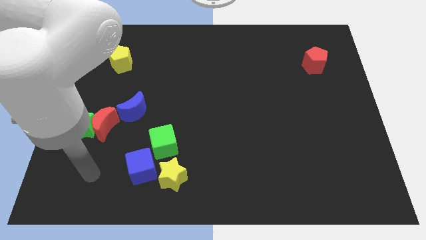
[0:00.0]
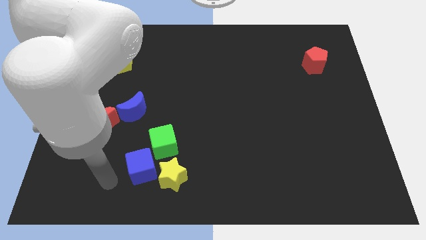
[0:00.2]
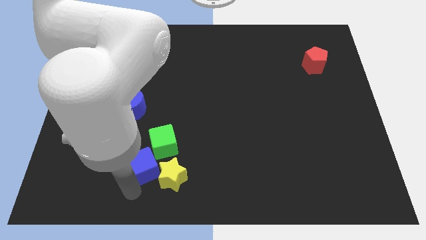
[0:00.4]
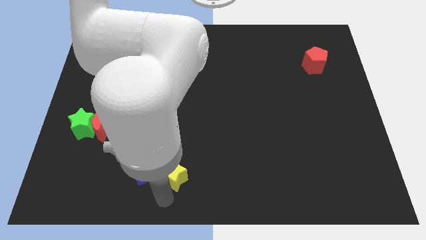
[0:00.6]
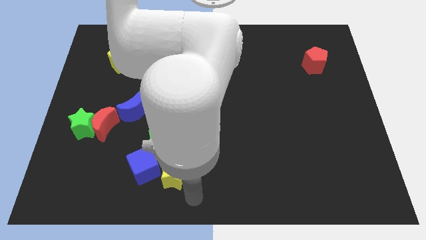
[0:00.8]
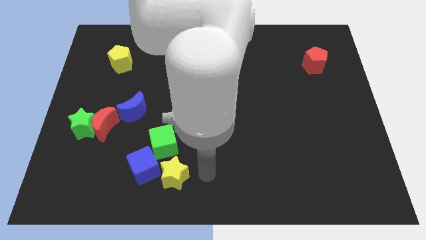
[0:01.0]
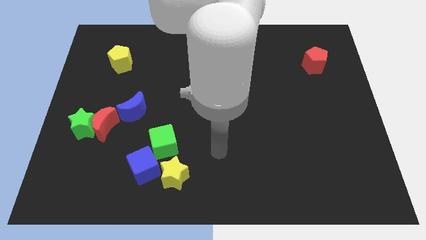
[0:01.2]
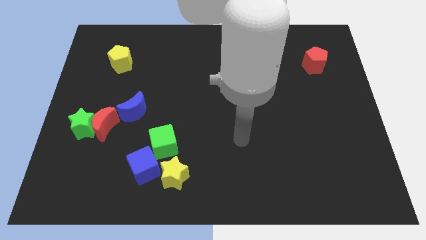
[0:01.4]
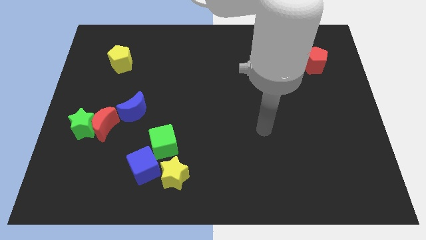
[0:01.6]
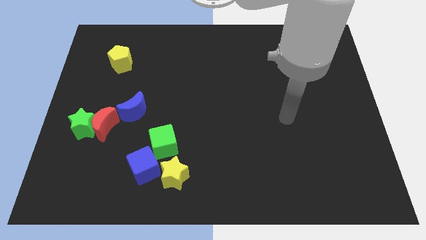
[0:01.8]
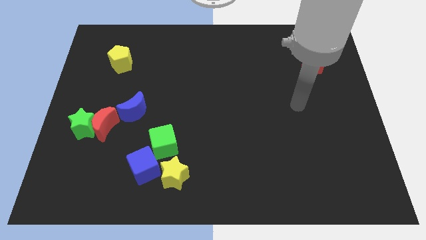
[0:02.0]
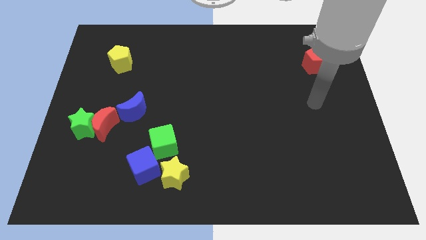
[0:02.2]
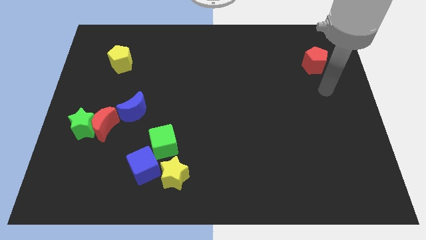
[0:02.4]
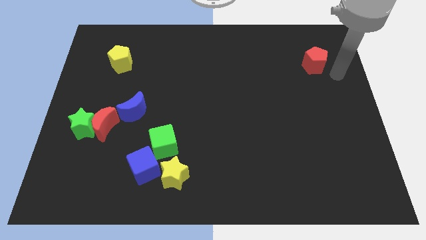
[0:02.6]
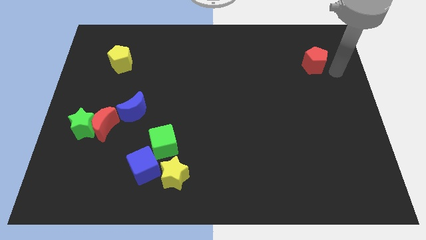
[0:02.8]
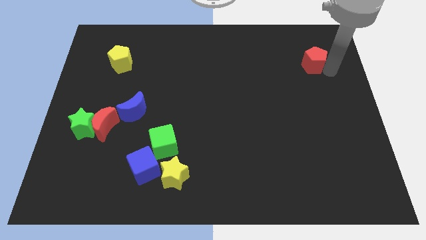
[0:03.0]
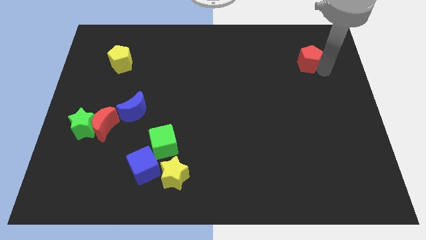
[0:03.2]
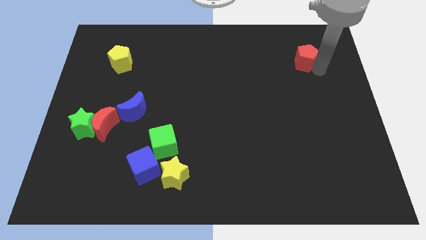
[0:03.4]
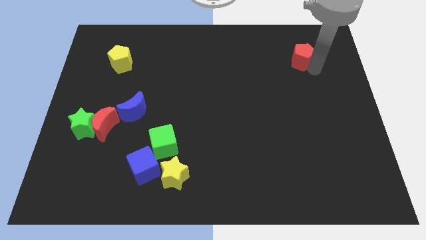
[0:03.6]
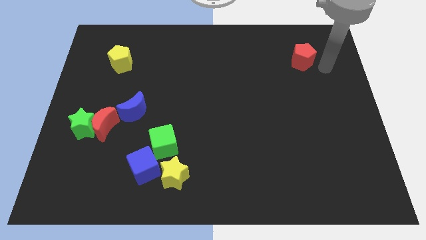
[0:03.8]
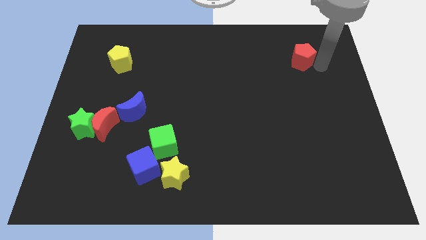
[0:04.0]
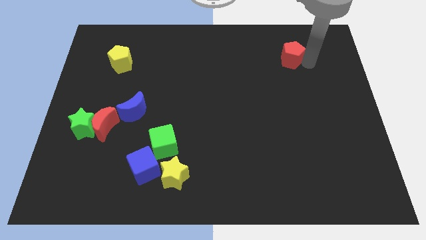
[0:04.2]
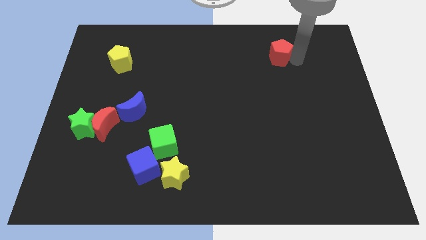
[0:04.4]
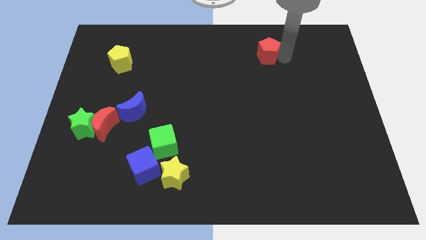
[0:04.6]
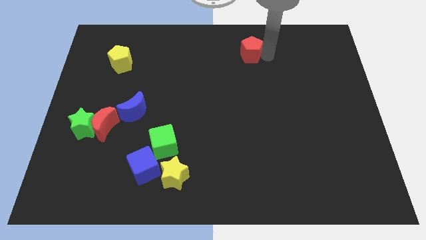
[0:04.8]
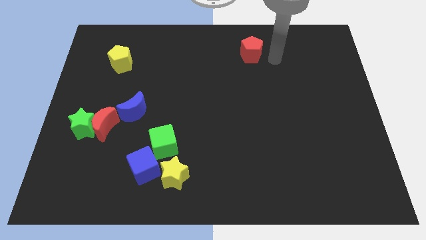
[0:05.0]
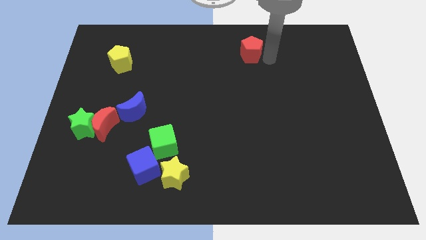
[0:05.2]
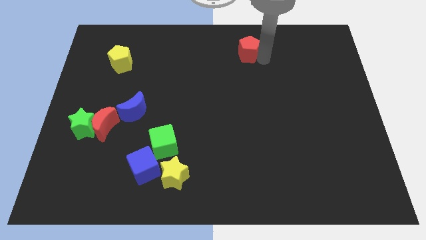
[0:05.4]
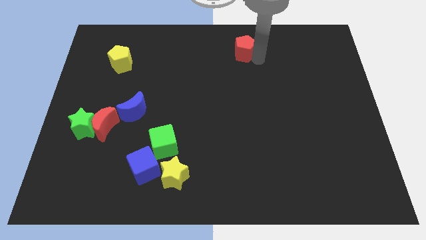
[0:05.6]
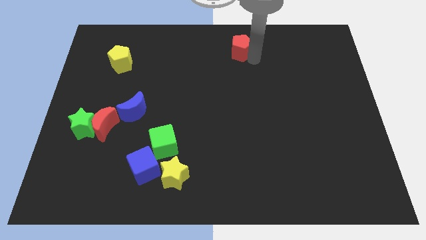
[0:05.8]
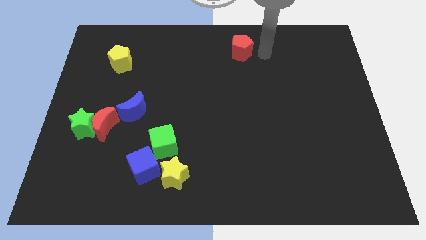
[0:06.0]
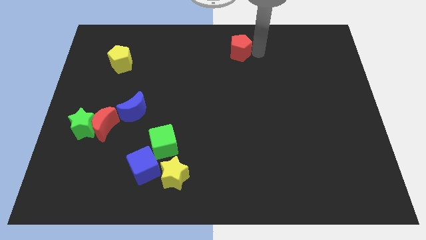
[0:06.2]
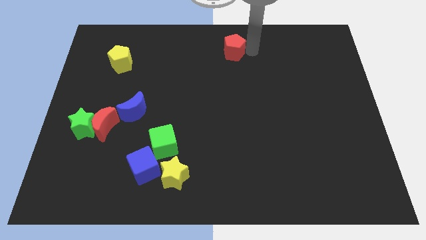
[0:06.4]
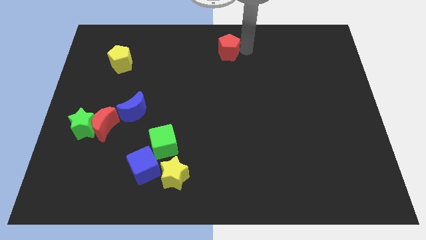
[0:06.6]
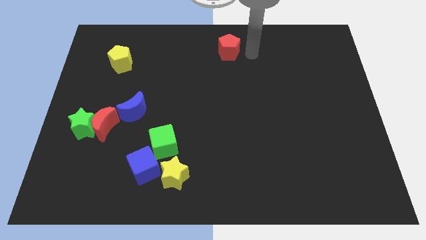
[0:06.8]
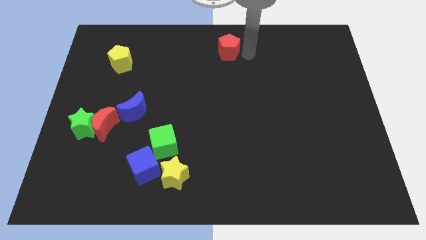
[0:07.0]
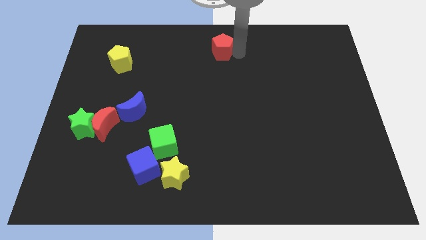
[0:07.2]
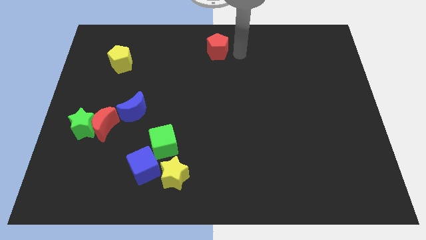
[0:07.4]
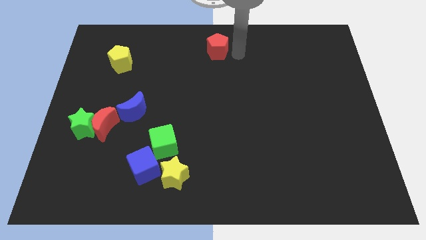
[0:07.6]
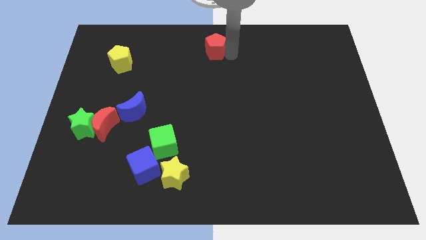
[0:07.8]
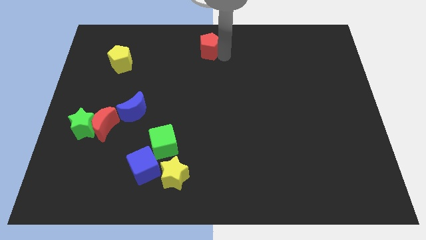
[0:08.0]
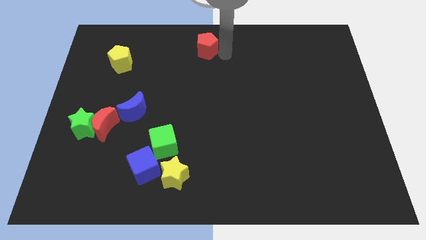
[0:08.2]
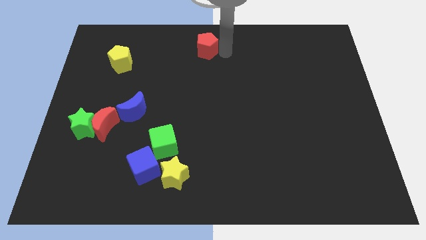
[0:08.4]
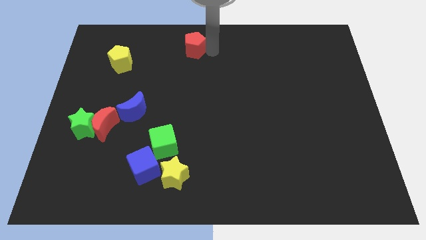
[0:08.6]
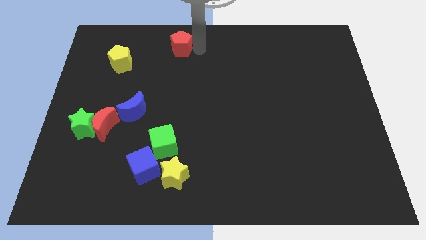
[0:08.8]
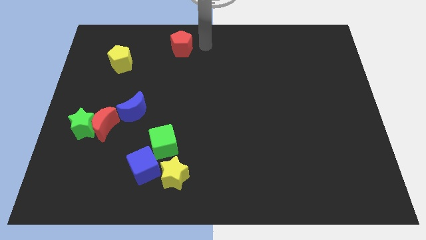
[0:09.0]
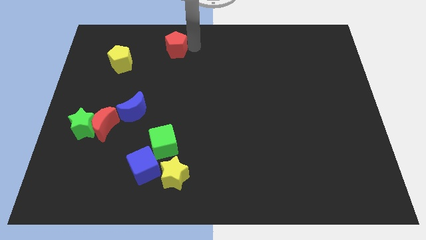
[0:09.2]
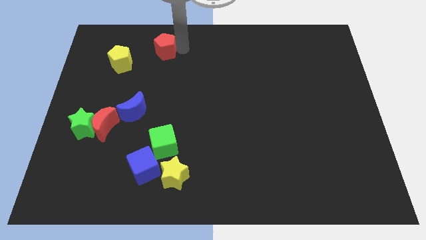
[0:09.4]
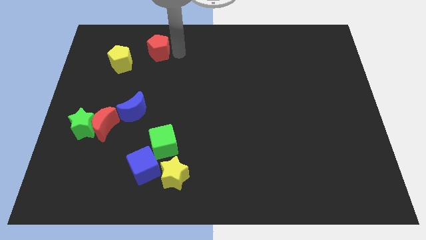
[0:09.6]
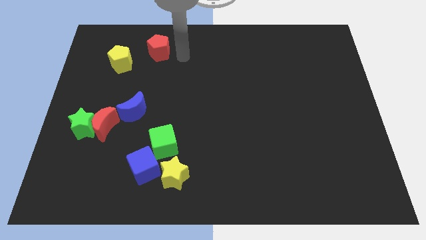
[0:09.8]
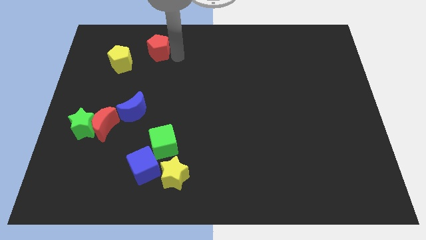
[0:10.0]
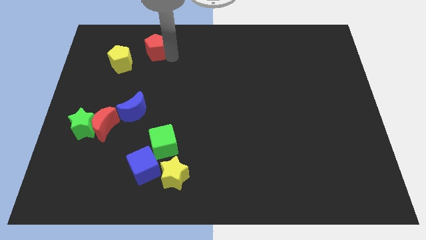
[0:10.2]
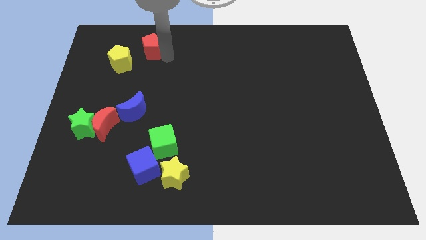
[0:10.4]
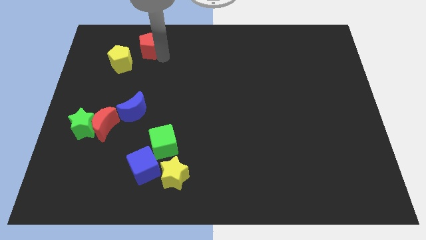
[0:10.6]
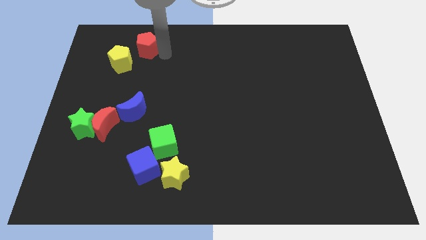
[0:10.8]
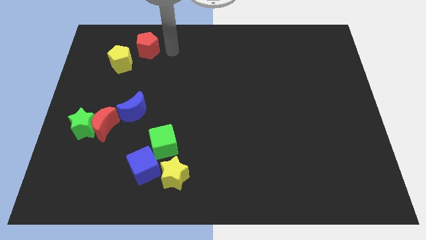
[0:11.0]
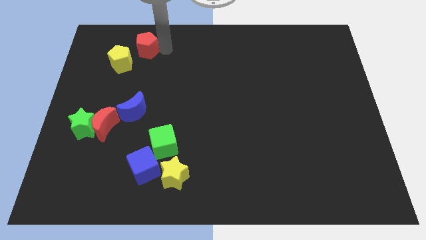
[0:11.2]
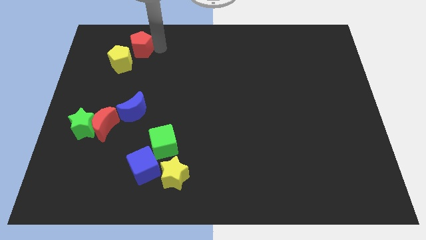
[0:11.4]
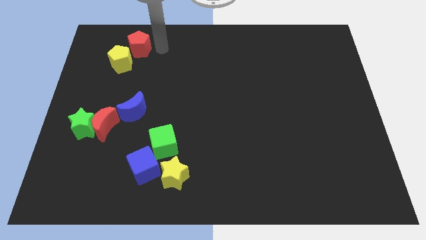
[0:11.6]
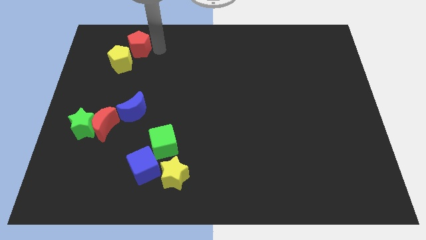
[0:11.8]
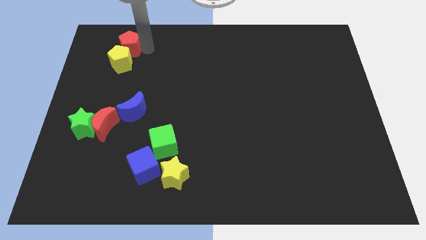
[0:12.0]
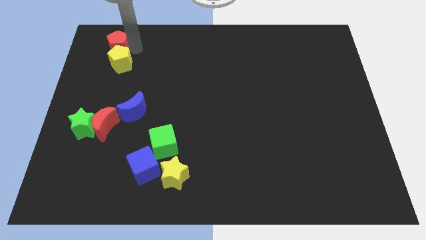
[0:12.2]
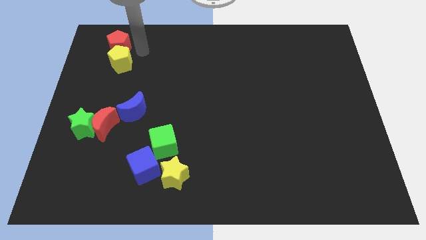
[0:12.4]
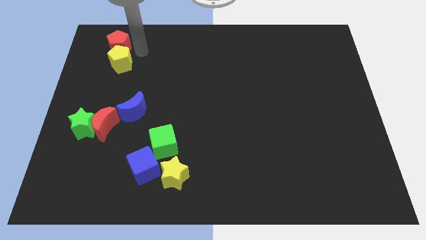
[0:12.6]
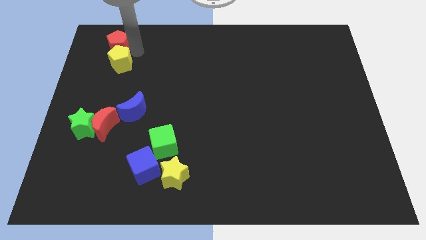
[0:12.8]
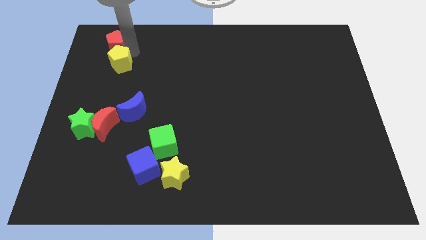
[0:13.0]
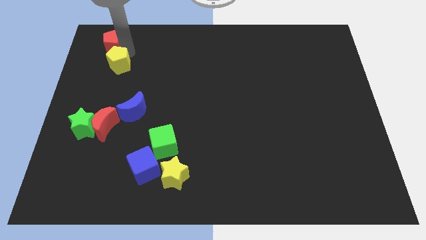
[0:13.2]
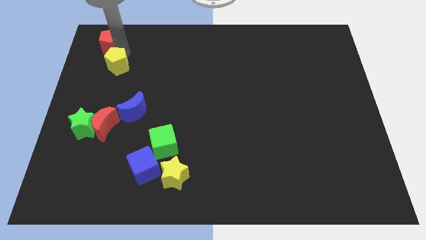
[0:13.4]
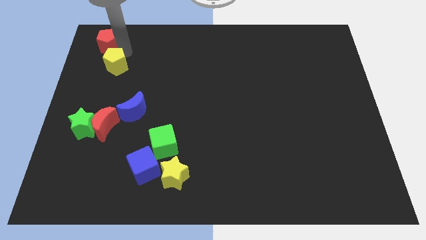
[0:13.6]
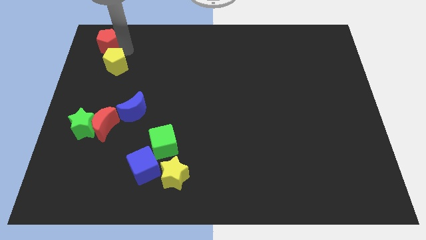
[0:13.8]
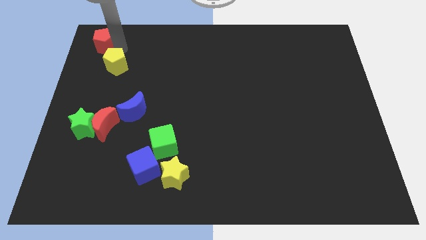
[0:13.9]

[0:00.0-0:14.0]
slide the red pentagon to the upper left corner
